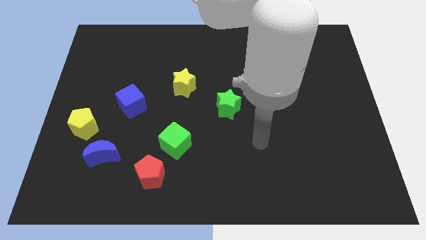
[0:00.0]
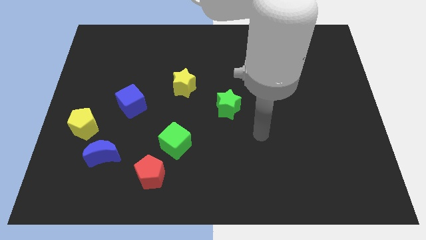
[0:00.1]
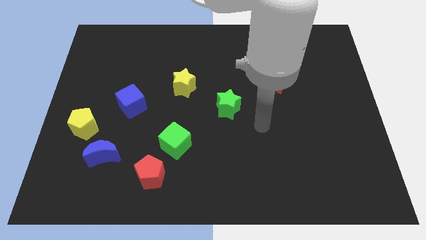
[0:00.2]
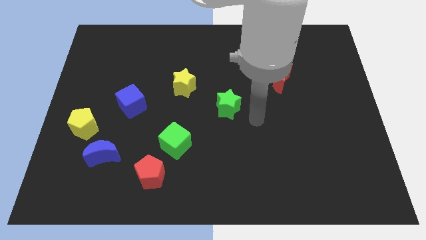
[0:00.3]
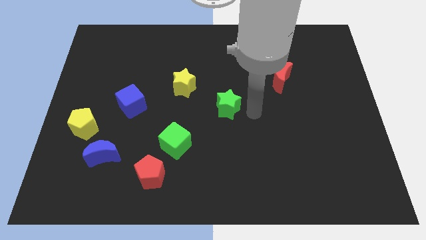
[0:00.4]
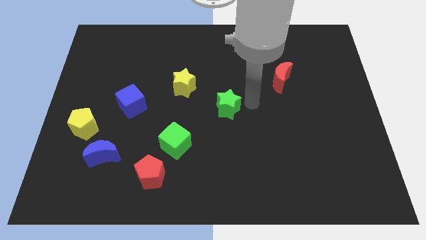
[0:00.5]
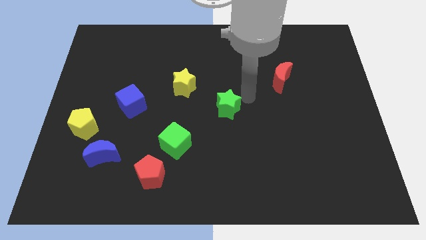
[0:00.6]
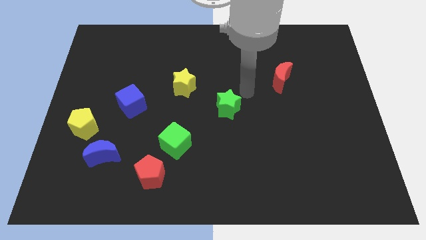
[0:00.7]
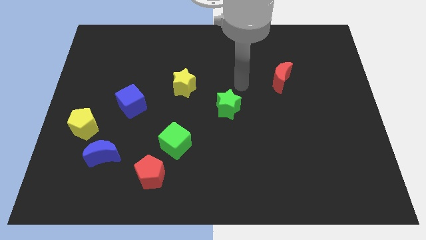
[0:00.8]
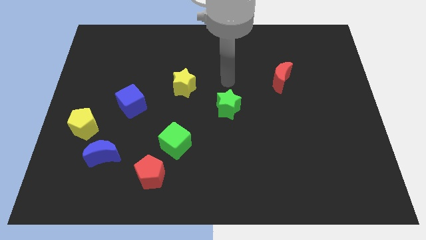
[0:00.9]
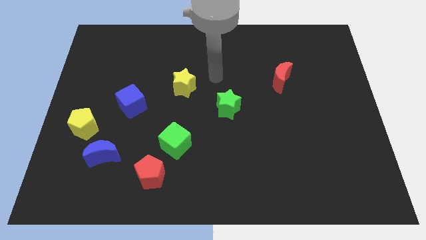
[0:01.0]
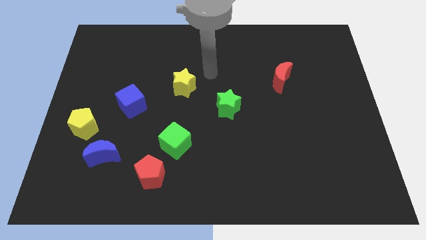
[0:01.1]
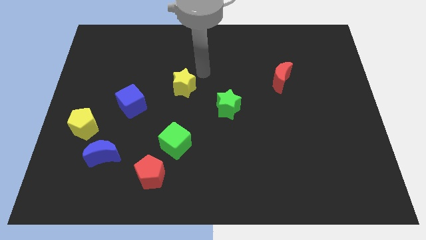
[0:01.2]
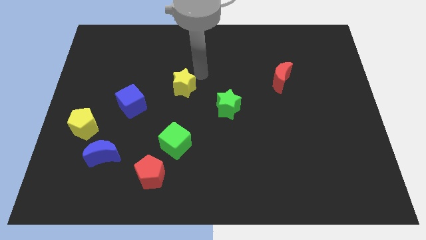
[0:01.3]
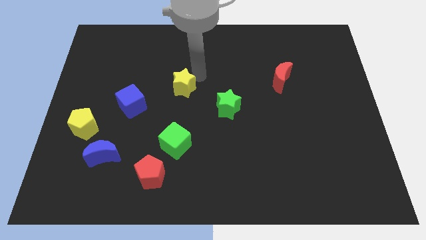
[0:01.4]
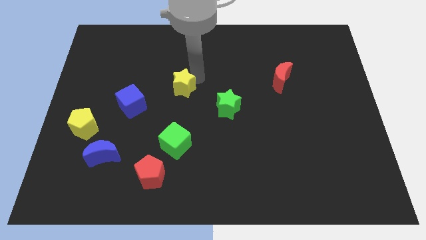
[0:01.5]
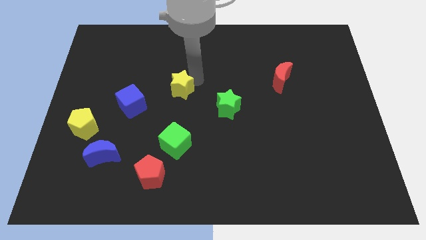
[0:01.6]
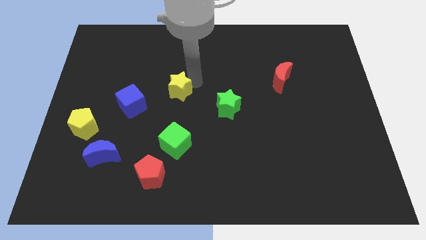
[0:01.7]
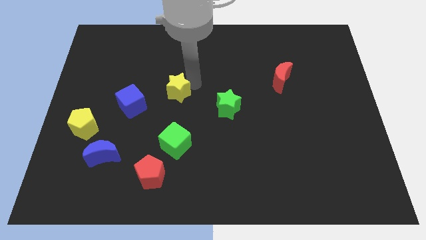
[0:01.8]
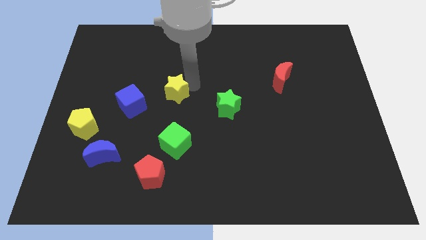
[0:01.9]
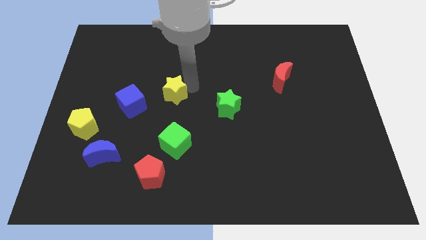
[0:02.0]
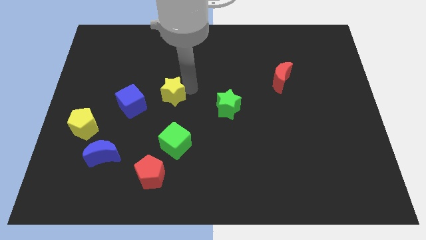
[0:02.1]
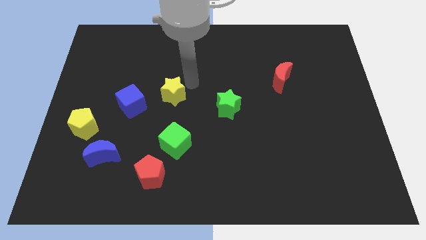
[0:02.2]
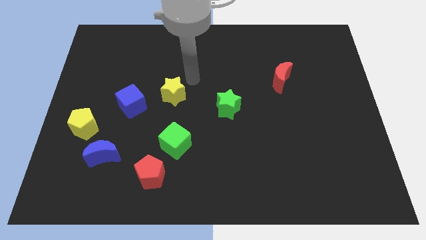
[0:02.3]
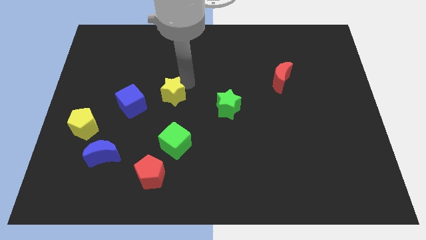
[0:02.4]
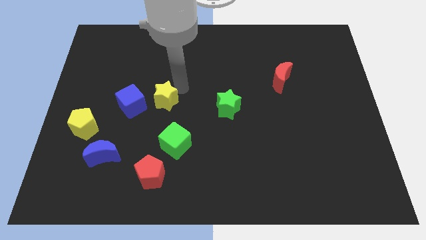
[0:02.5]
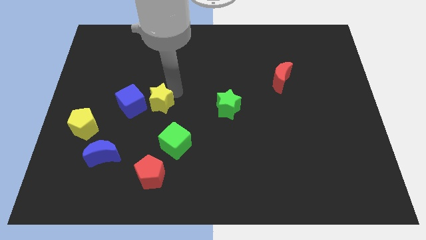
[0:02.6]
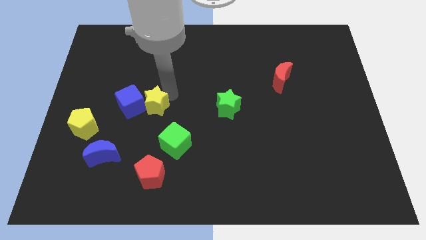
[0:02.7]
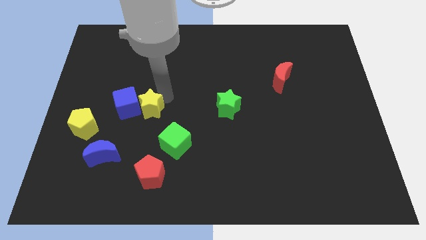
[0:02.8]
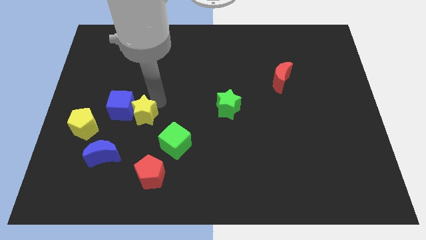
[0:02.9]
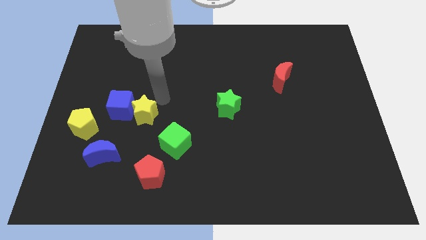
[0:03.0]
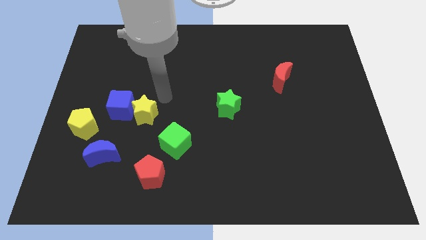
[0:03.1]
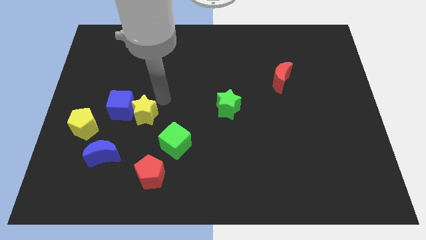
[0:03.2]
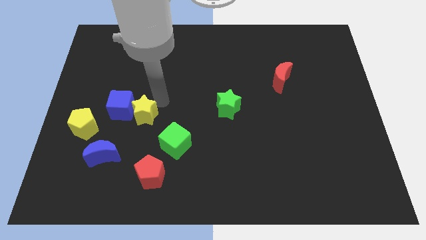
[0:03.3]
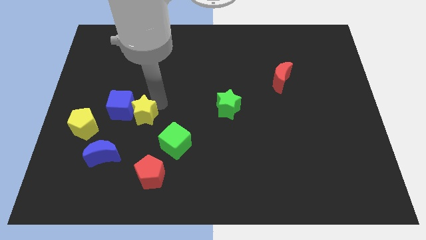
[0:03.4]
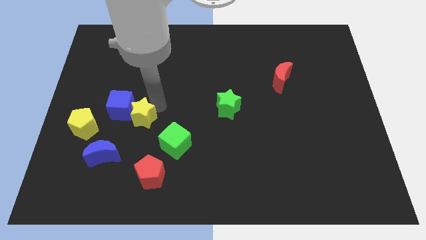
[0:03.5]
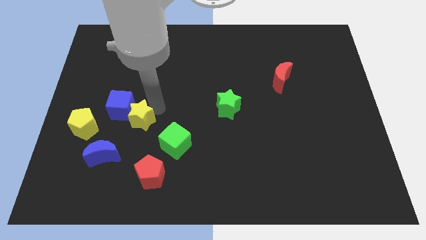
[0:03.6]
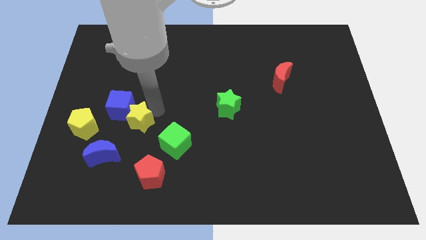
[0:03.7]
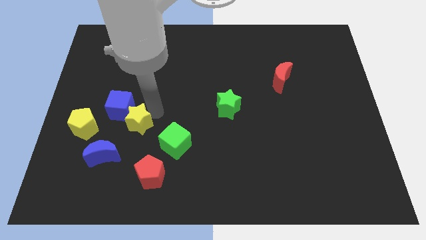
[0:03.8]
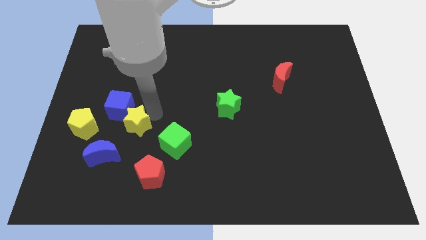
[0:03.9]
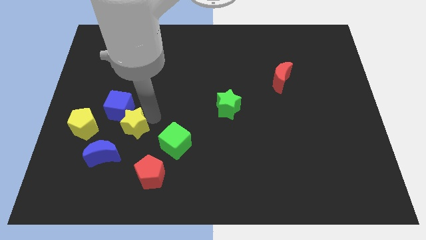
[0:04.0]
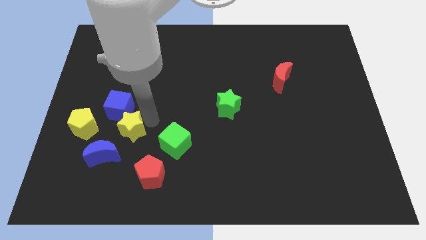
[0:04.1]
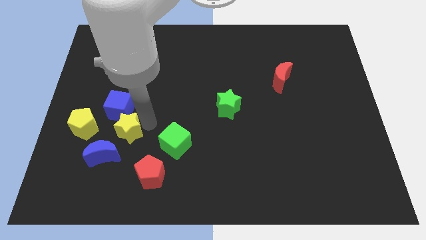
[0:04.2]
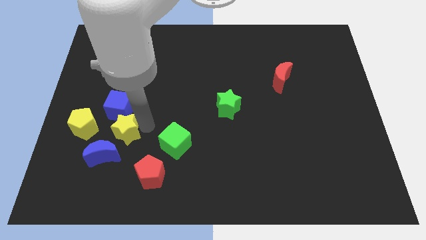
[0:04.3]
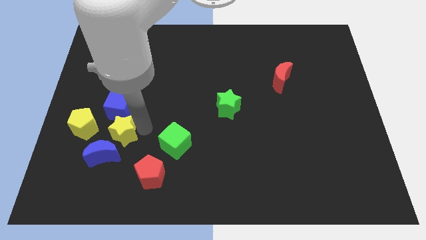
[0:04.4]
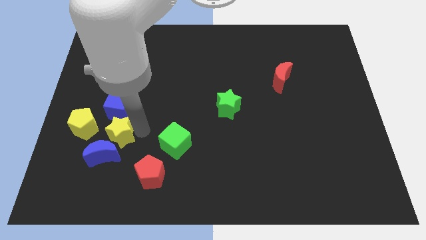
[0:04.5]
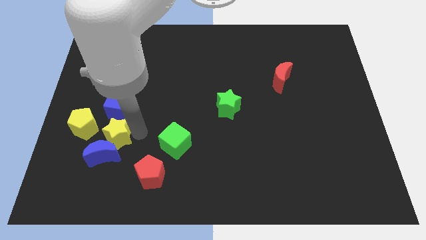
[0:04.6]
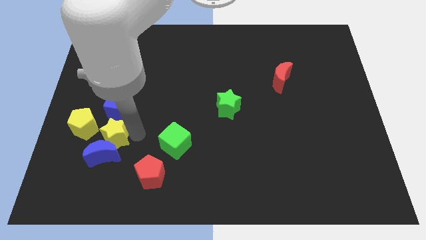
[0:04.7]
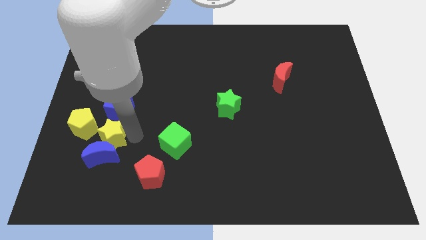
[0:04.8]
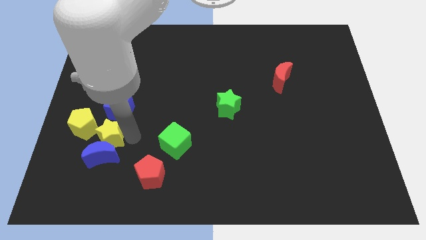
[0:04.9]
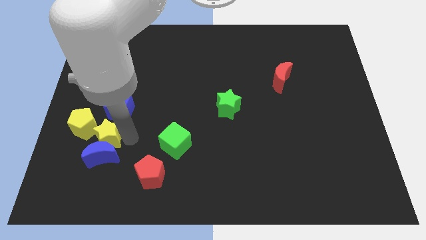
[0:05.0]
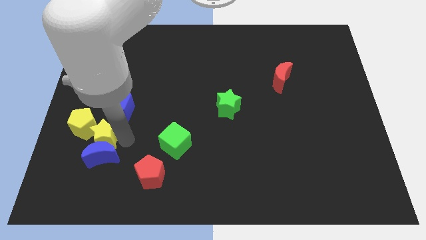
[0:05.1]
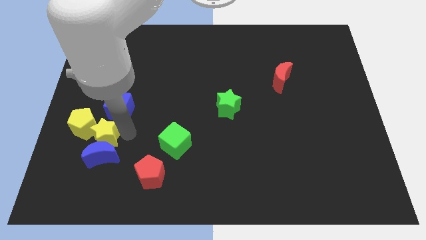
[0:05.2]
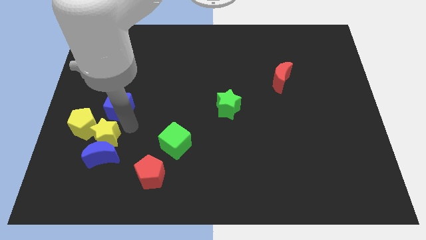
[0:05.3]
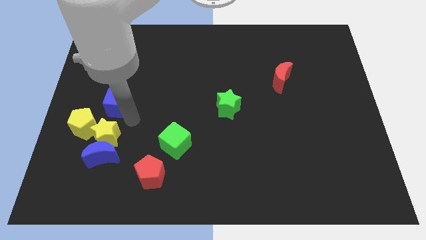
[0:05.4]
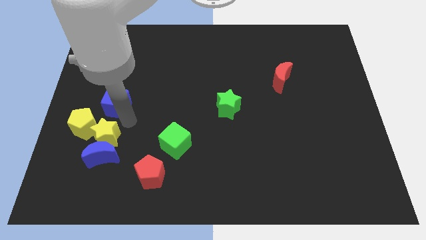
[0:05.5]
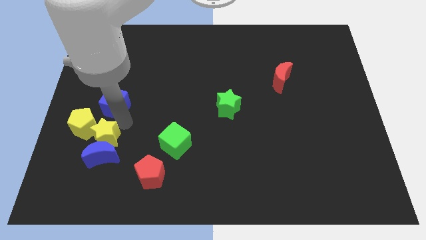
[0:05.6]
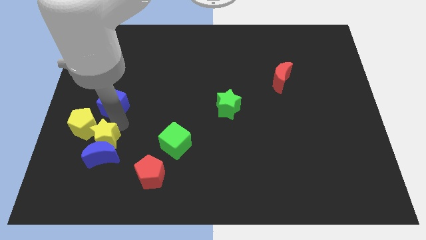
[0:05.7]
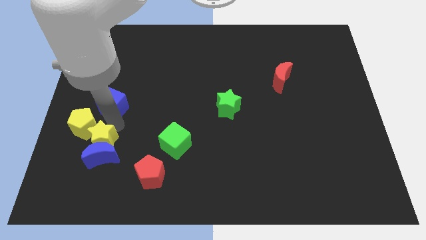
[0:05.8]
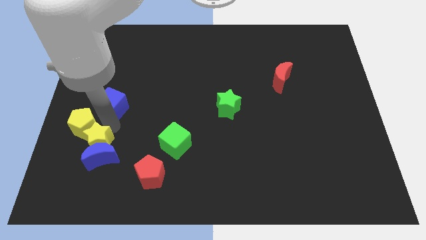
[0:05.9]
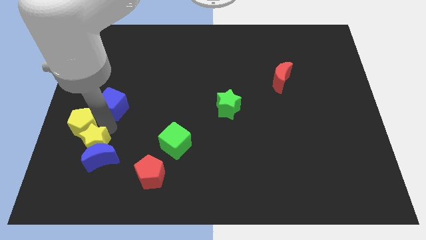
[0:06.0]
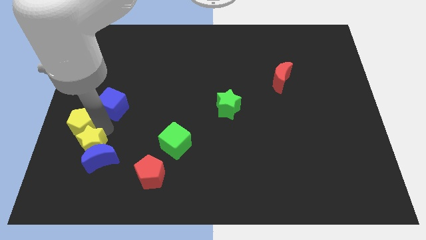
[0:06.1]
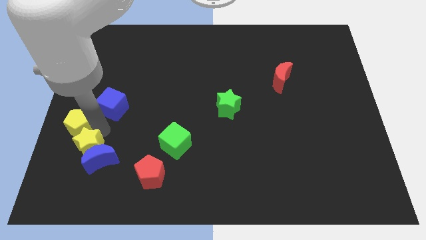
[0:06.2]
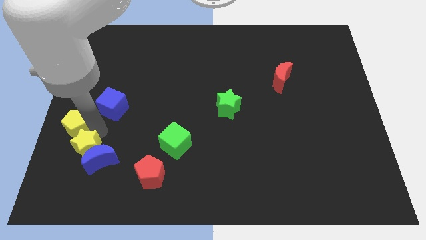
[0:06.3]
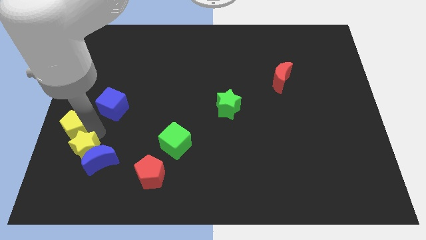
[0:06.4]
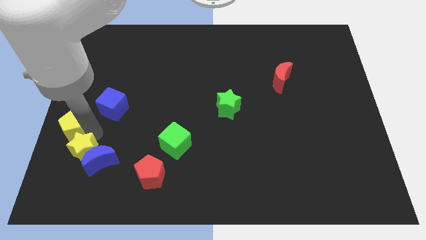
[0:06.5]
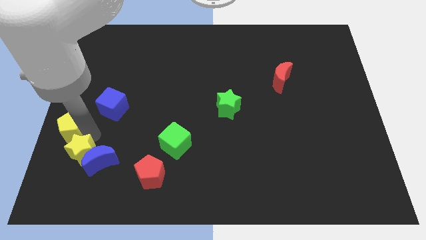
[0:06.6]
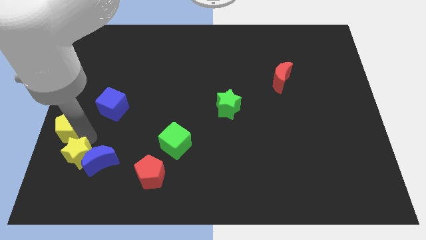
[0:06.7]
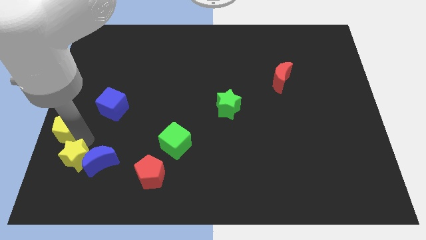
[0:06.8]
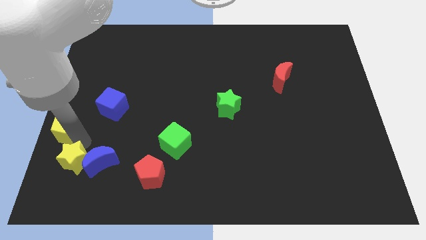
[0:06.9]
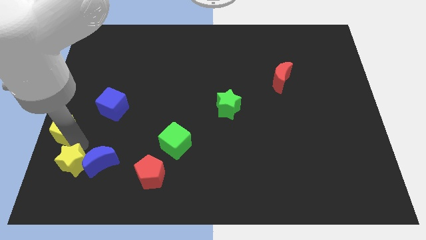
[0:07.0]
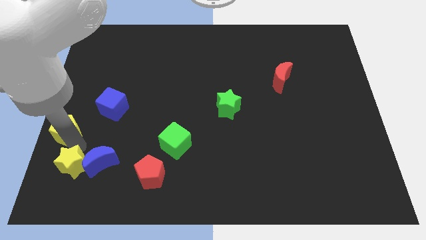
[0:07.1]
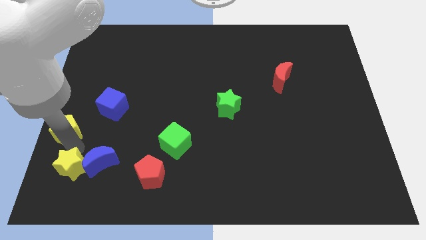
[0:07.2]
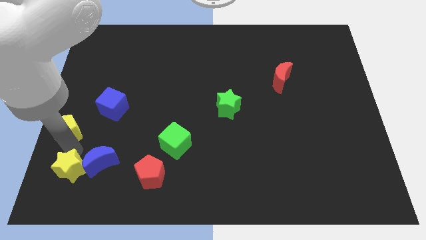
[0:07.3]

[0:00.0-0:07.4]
put the yellow star to the bottom left of the board
